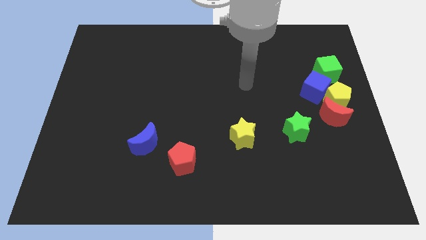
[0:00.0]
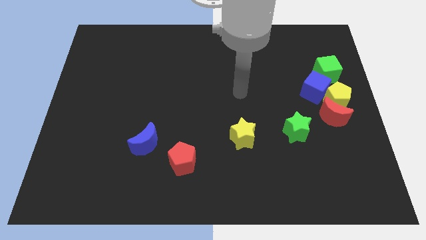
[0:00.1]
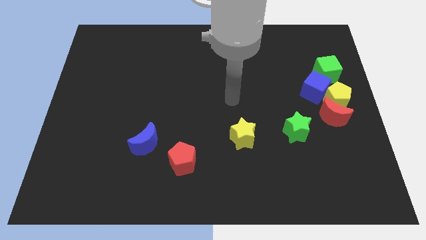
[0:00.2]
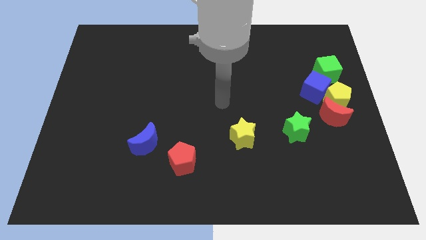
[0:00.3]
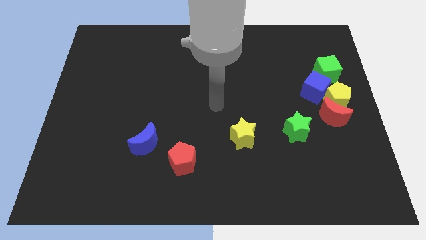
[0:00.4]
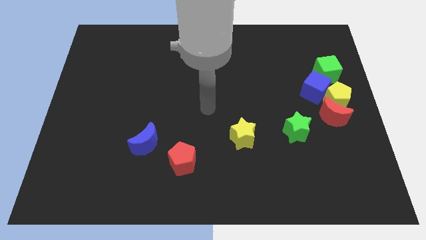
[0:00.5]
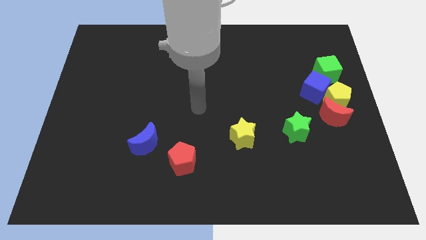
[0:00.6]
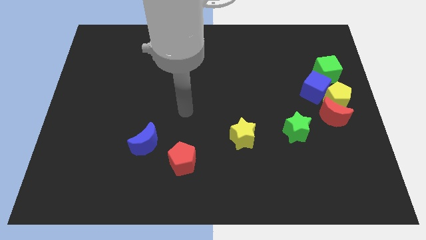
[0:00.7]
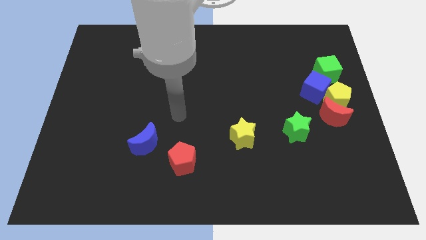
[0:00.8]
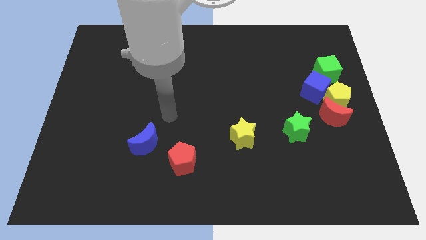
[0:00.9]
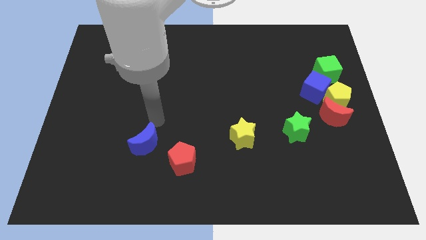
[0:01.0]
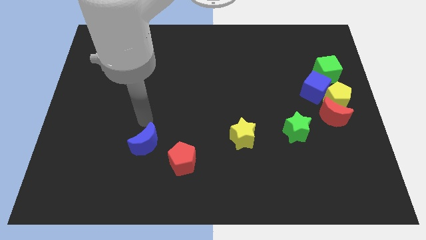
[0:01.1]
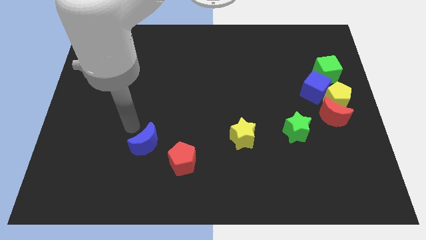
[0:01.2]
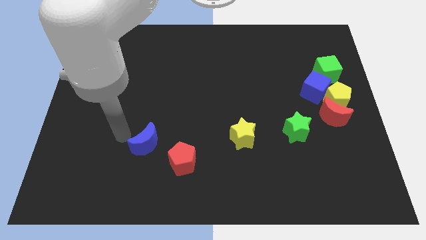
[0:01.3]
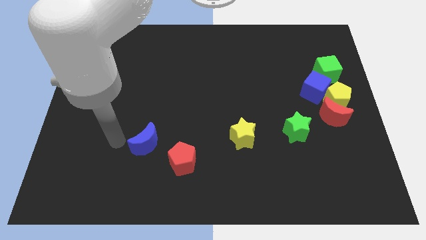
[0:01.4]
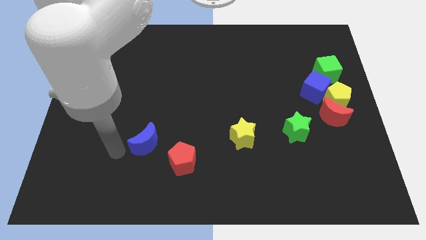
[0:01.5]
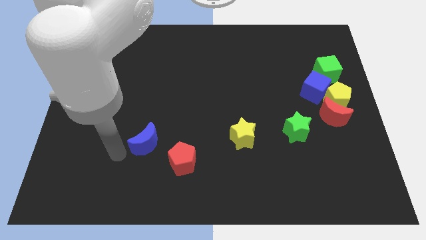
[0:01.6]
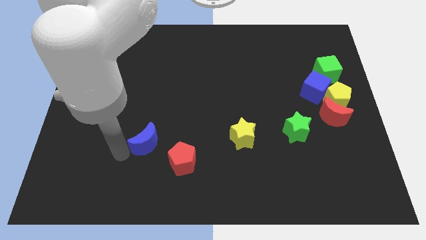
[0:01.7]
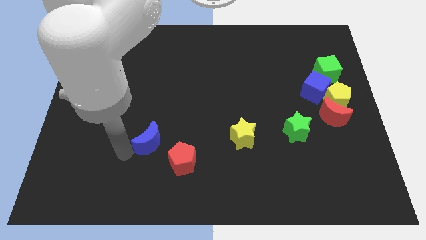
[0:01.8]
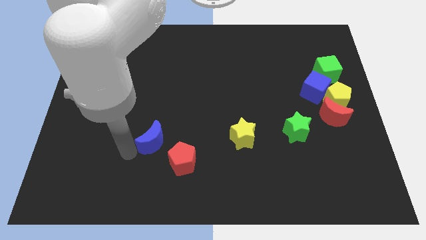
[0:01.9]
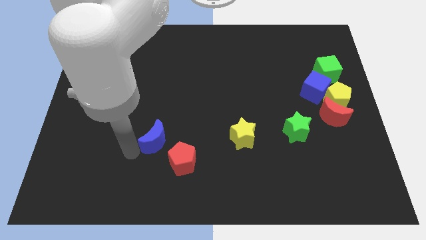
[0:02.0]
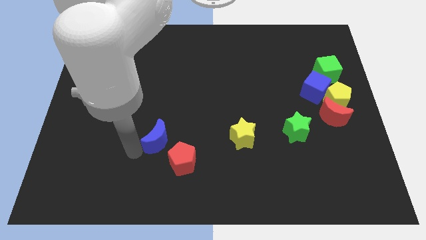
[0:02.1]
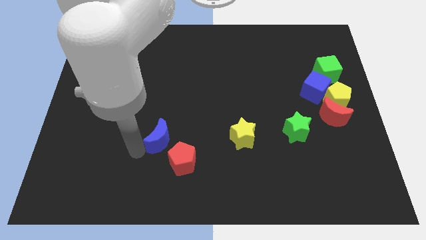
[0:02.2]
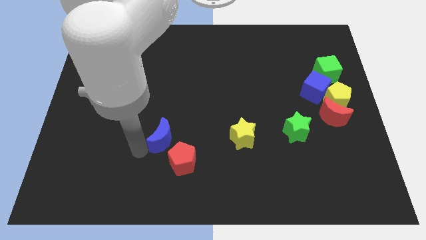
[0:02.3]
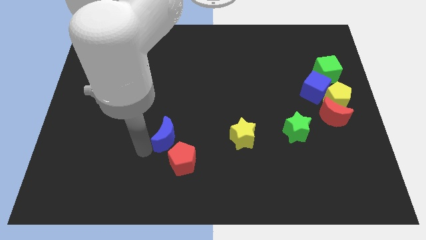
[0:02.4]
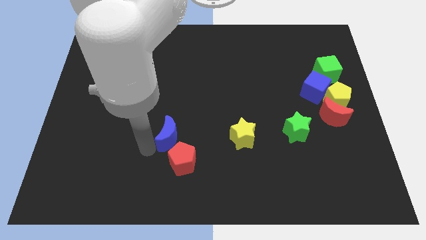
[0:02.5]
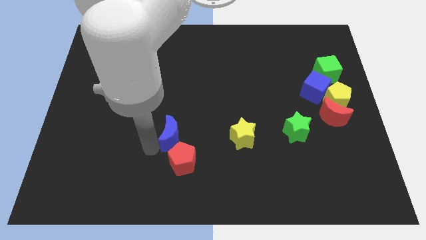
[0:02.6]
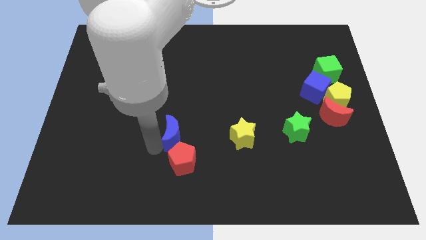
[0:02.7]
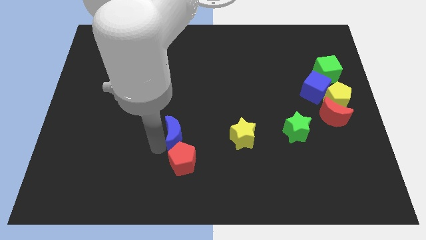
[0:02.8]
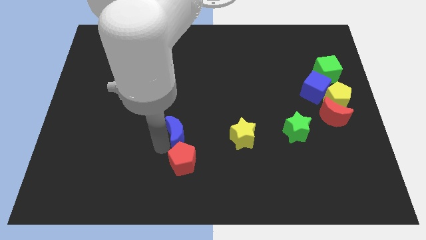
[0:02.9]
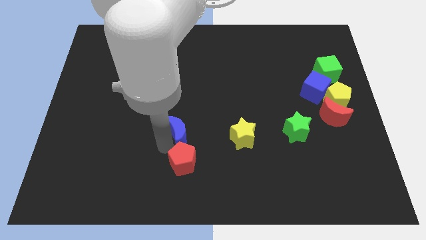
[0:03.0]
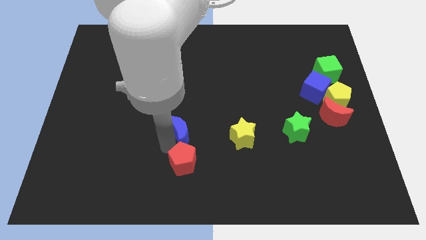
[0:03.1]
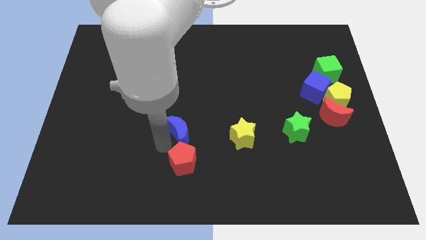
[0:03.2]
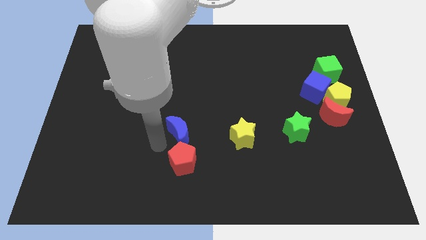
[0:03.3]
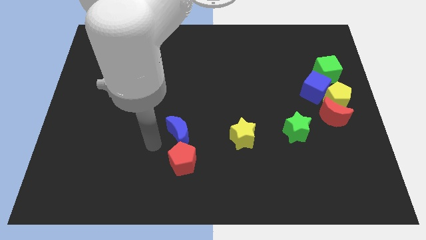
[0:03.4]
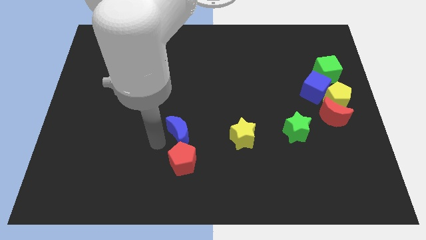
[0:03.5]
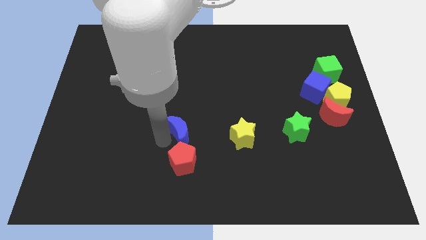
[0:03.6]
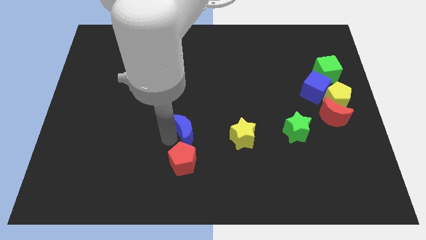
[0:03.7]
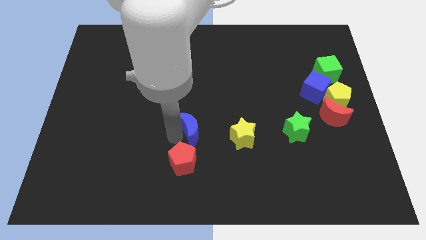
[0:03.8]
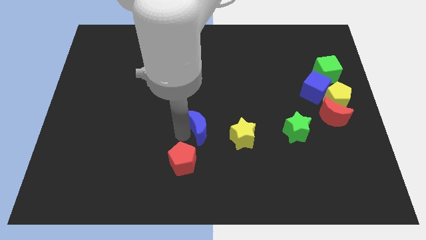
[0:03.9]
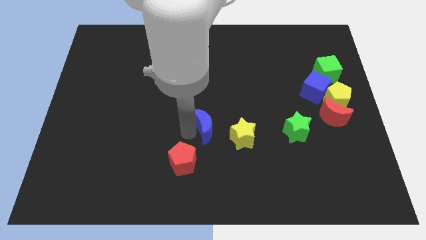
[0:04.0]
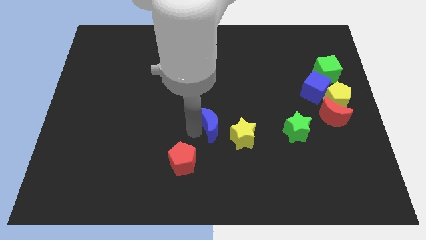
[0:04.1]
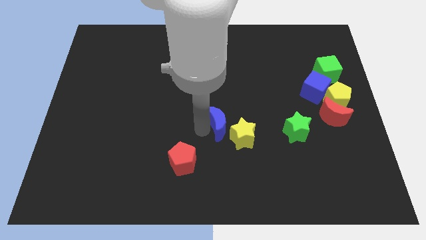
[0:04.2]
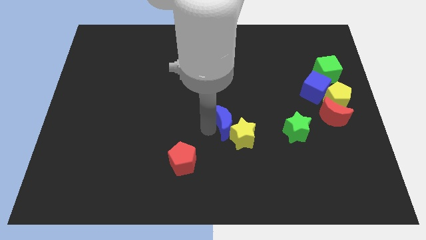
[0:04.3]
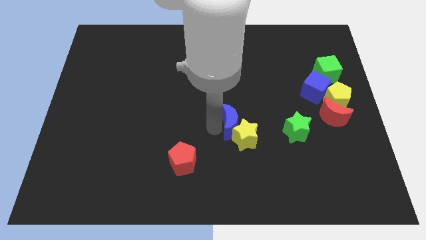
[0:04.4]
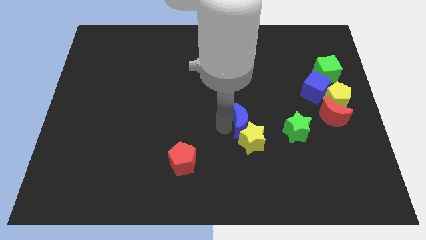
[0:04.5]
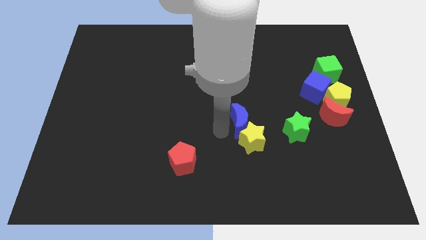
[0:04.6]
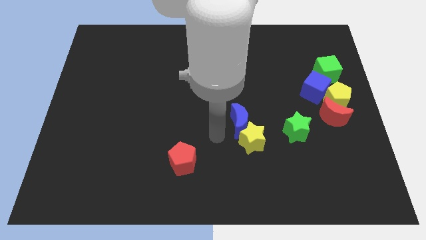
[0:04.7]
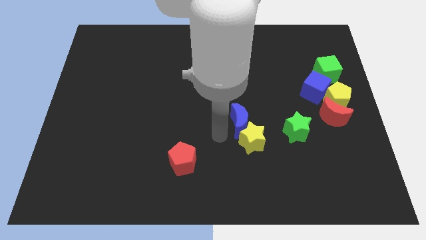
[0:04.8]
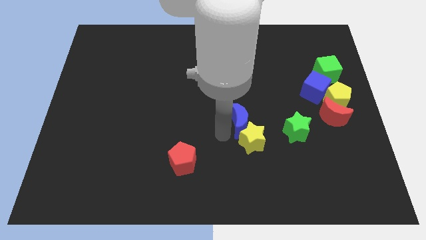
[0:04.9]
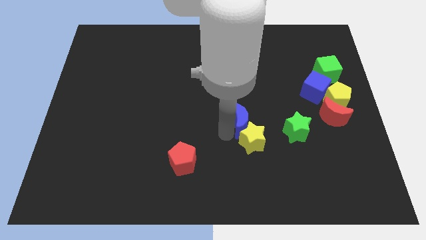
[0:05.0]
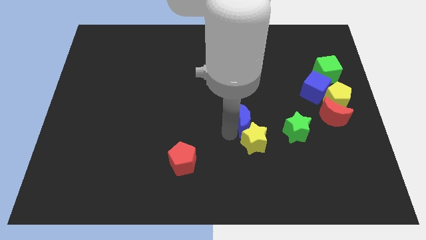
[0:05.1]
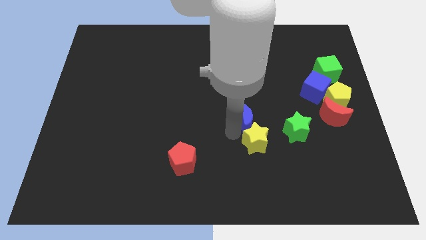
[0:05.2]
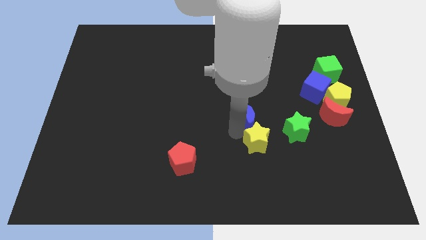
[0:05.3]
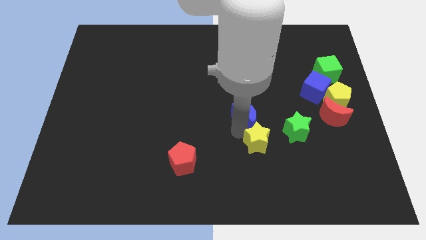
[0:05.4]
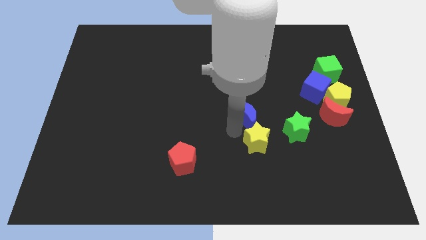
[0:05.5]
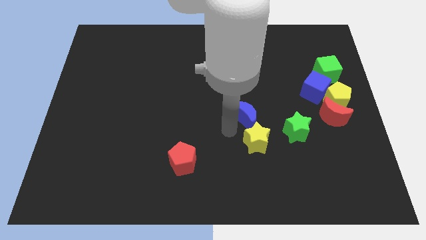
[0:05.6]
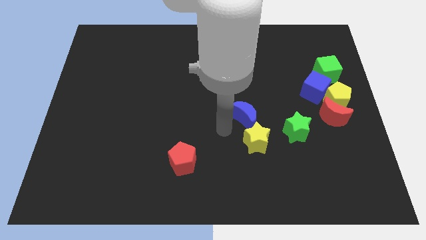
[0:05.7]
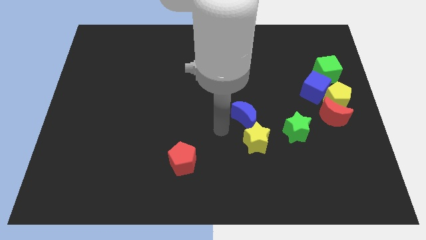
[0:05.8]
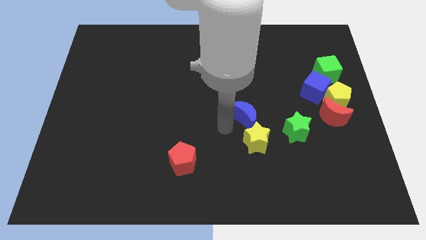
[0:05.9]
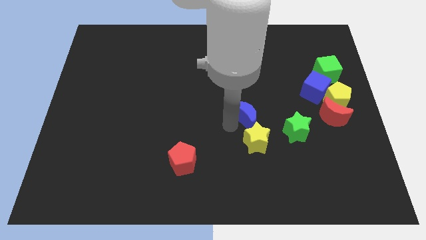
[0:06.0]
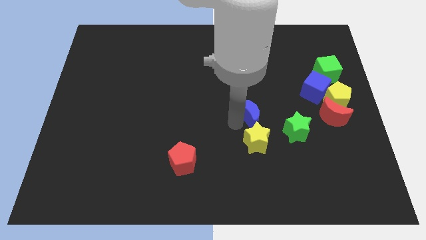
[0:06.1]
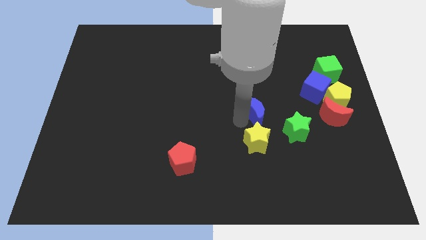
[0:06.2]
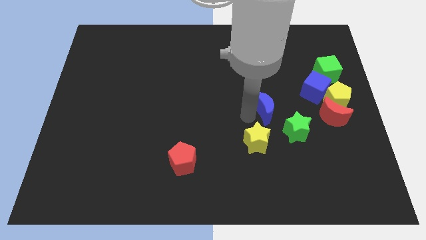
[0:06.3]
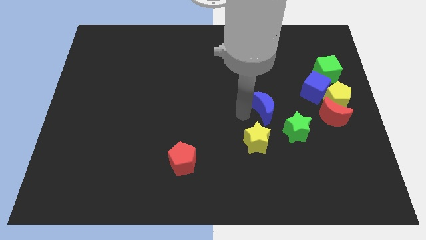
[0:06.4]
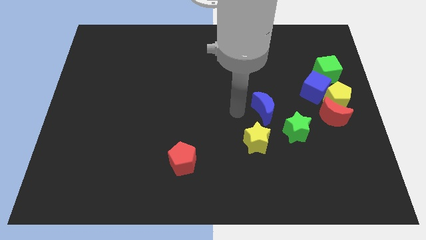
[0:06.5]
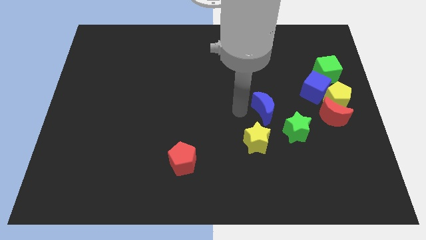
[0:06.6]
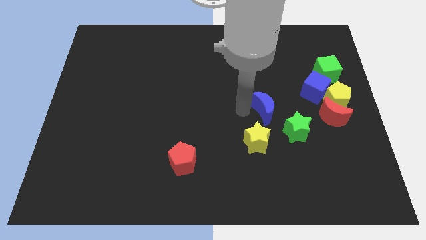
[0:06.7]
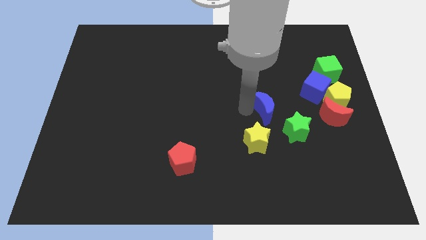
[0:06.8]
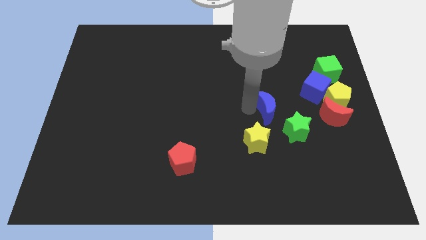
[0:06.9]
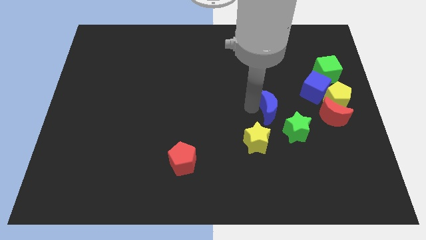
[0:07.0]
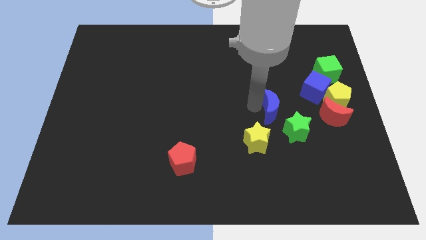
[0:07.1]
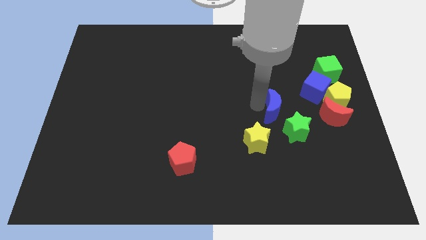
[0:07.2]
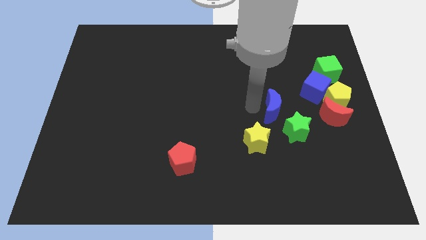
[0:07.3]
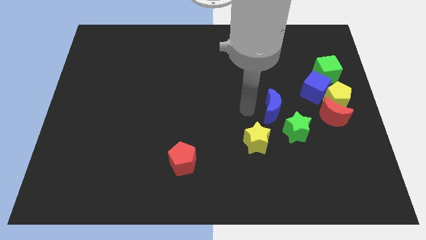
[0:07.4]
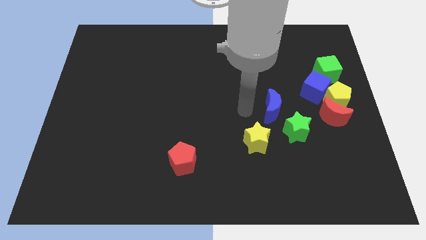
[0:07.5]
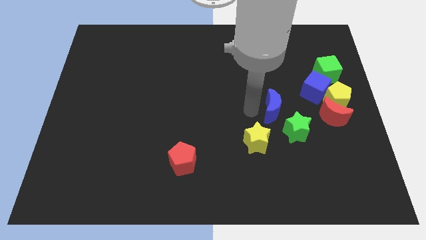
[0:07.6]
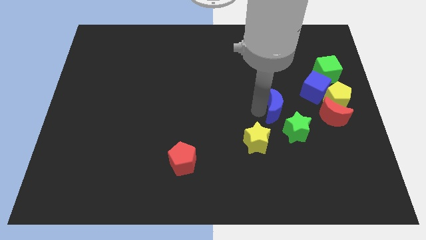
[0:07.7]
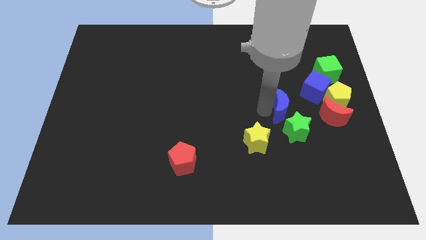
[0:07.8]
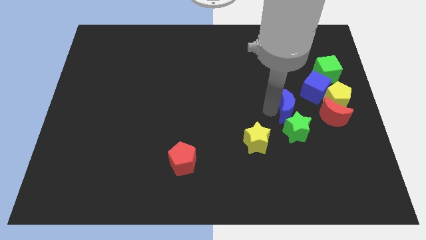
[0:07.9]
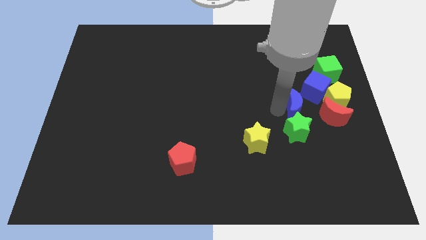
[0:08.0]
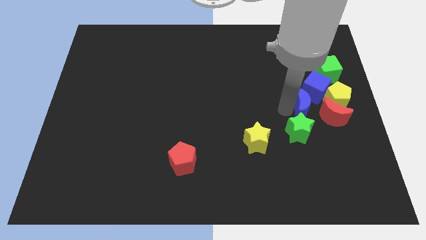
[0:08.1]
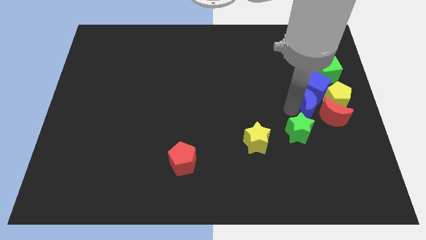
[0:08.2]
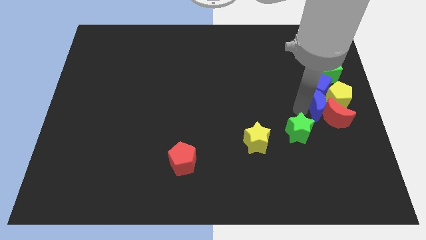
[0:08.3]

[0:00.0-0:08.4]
put the blue moon towards the yellow pentagon
